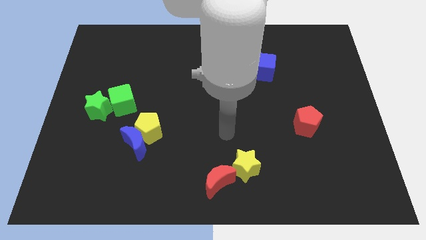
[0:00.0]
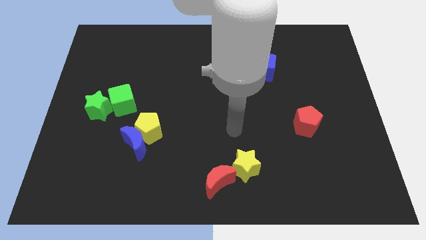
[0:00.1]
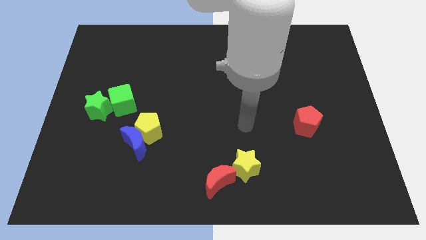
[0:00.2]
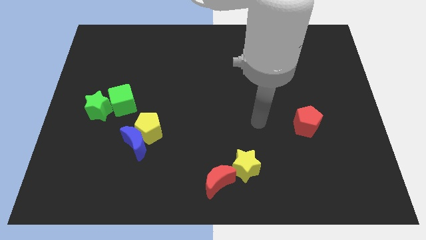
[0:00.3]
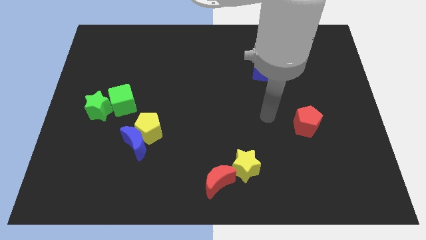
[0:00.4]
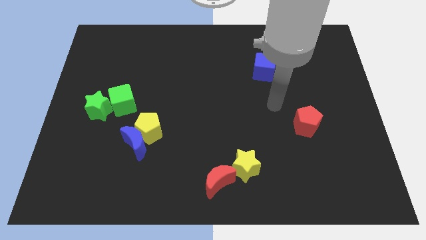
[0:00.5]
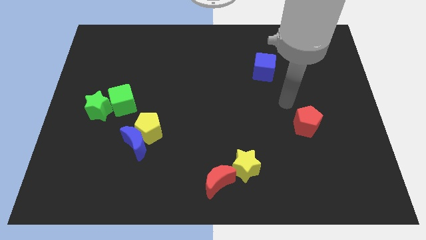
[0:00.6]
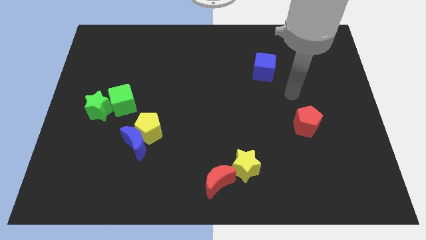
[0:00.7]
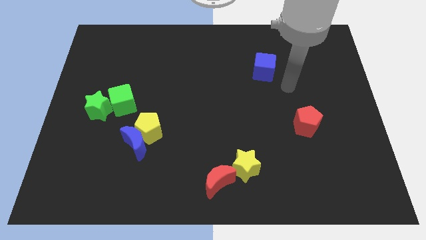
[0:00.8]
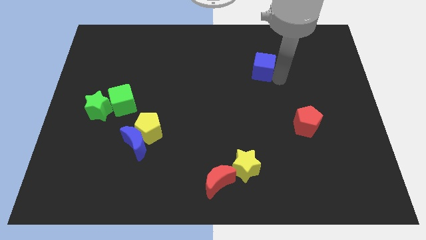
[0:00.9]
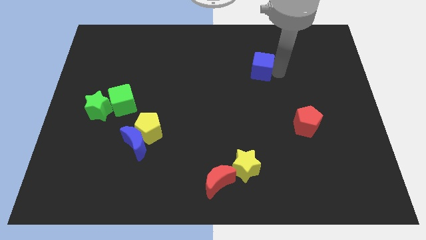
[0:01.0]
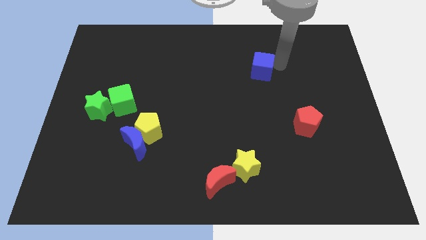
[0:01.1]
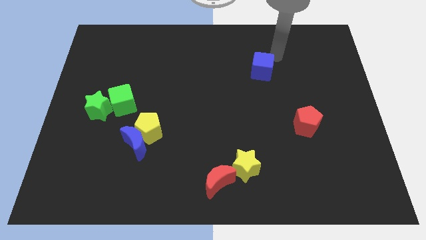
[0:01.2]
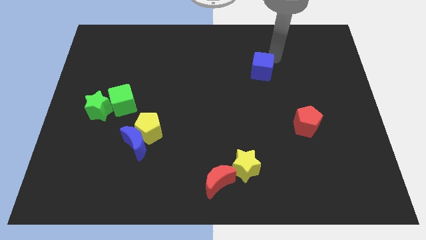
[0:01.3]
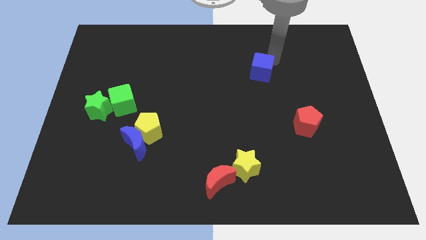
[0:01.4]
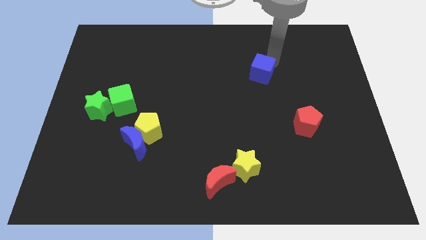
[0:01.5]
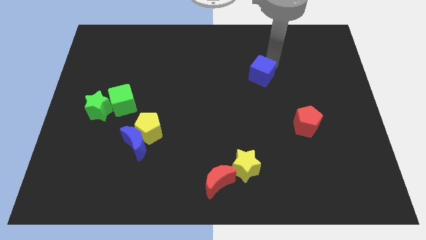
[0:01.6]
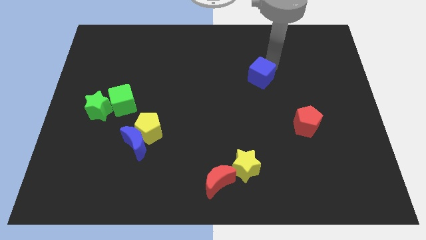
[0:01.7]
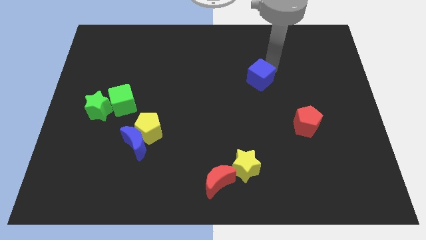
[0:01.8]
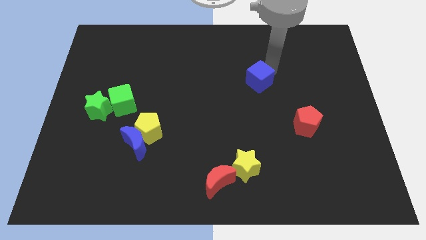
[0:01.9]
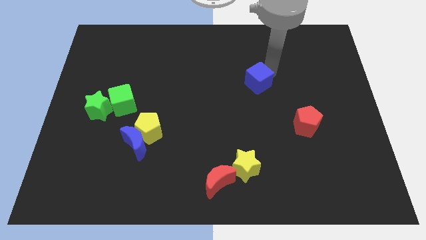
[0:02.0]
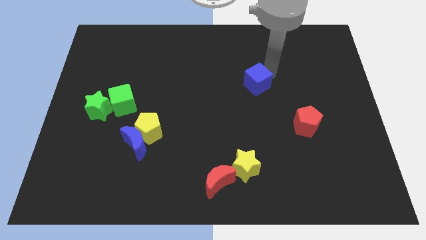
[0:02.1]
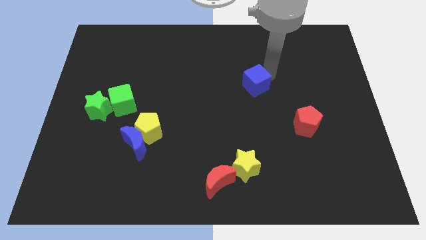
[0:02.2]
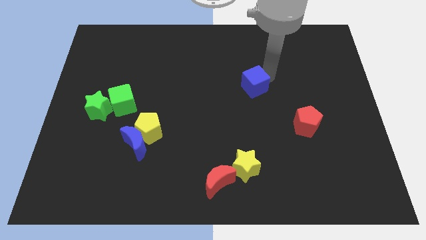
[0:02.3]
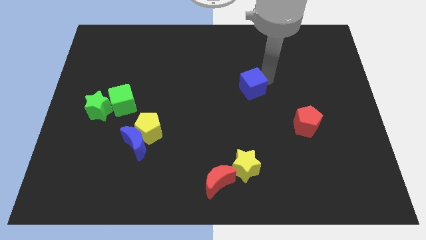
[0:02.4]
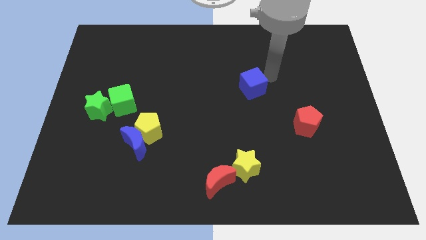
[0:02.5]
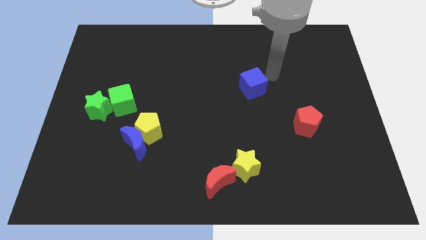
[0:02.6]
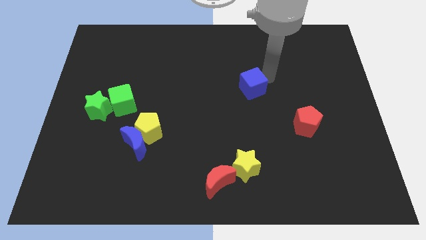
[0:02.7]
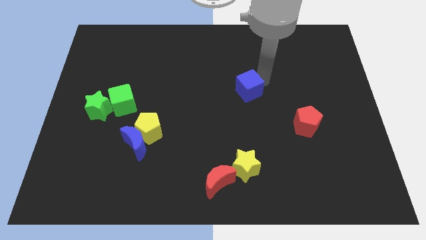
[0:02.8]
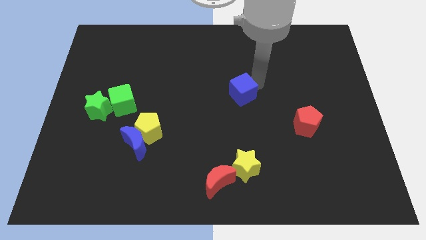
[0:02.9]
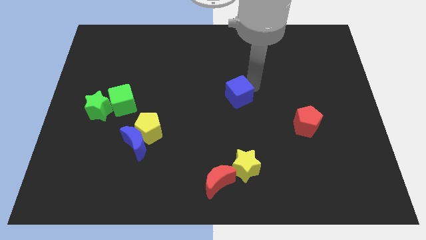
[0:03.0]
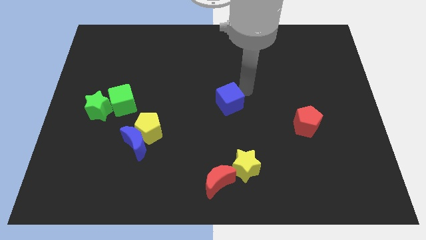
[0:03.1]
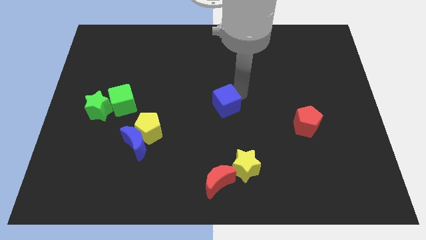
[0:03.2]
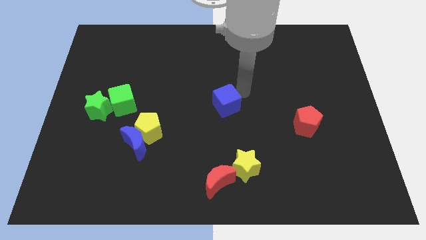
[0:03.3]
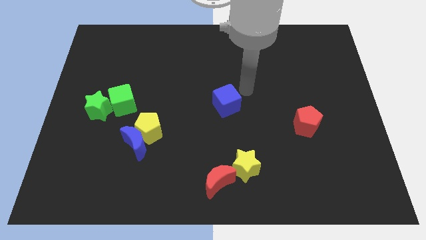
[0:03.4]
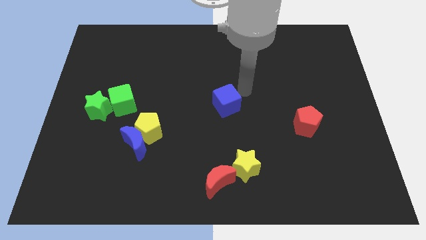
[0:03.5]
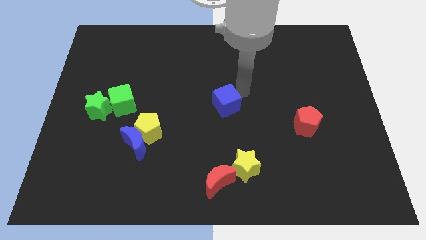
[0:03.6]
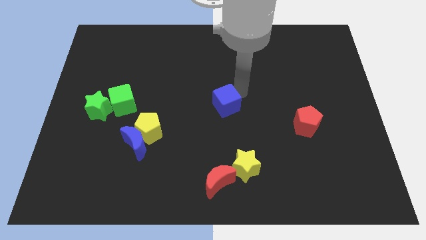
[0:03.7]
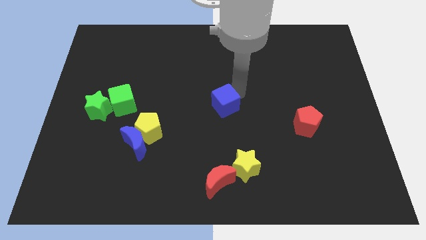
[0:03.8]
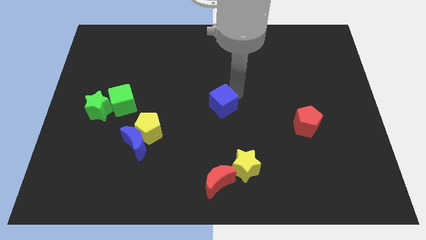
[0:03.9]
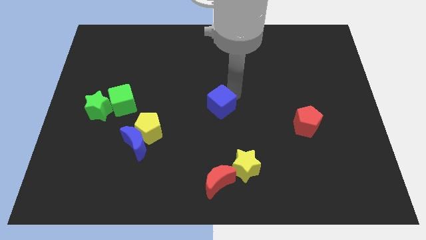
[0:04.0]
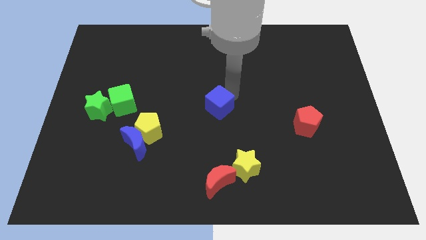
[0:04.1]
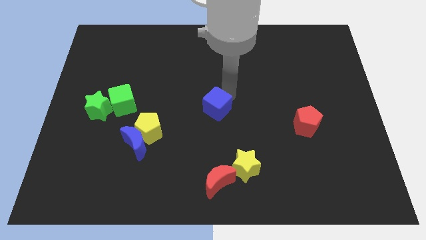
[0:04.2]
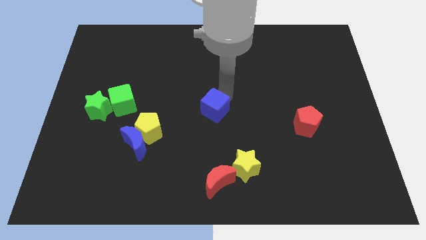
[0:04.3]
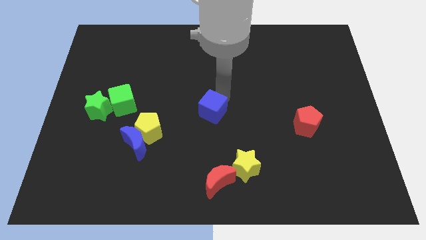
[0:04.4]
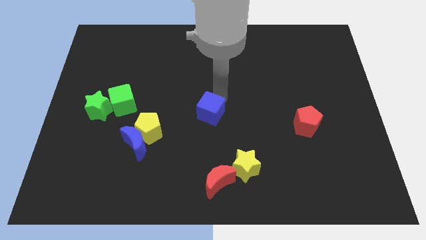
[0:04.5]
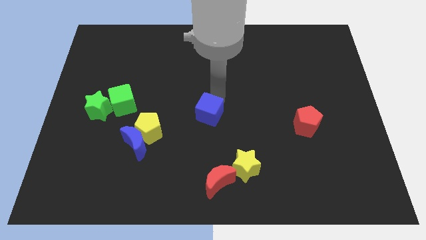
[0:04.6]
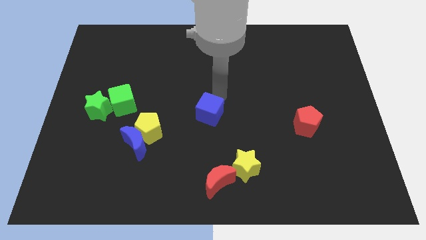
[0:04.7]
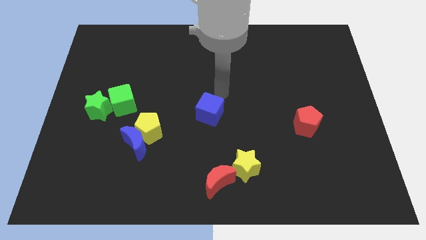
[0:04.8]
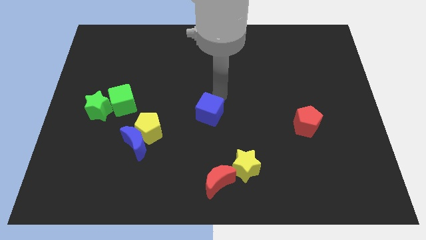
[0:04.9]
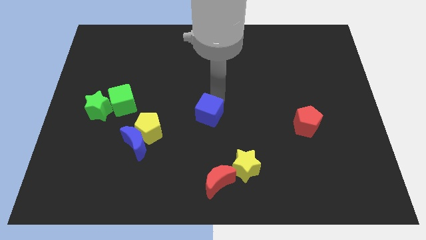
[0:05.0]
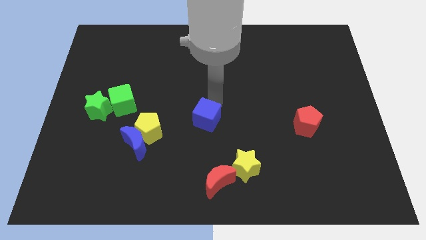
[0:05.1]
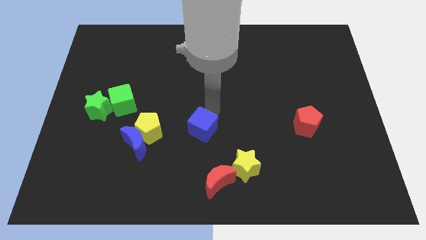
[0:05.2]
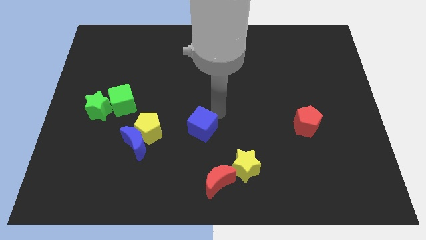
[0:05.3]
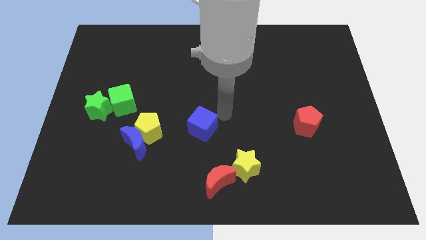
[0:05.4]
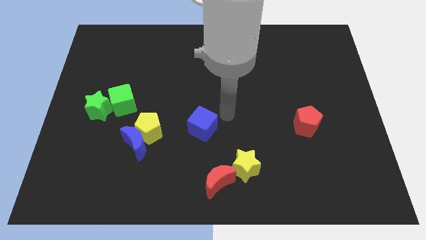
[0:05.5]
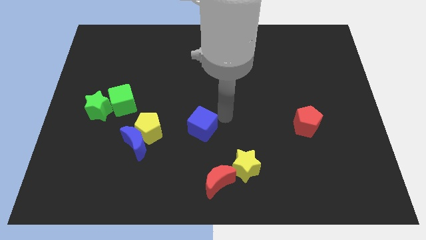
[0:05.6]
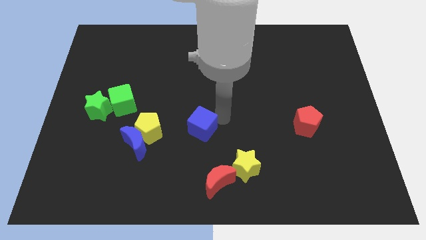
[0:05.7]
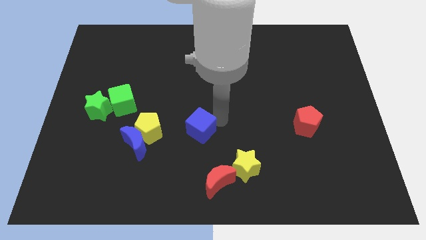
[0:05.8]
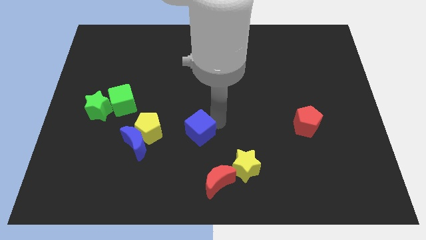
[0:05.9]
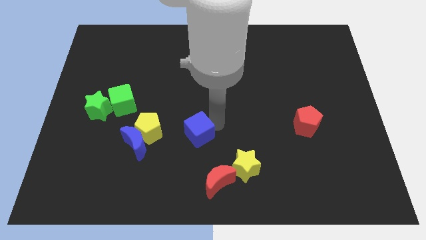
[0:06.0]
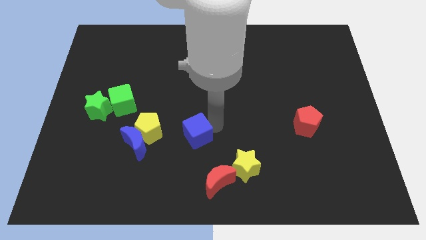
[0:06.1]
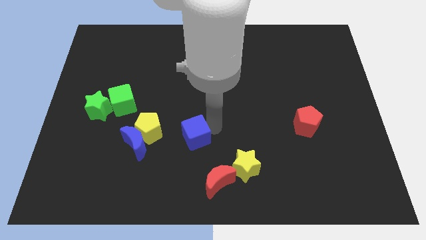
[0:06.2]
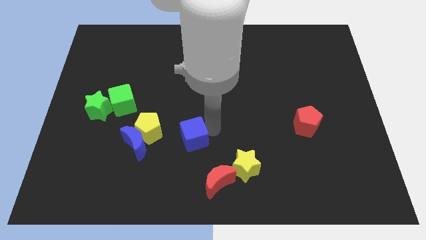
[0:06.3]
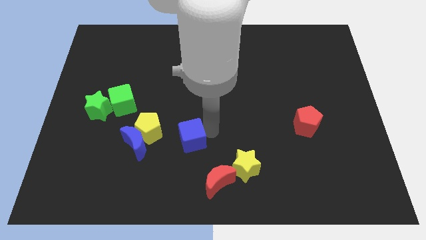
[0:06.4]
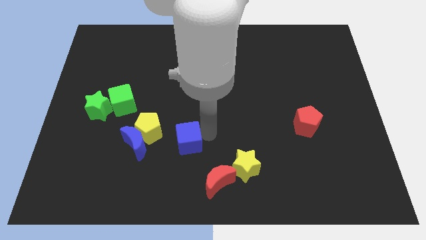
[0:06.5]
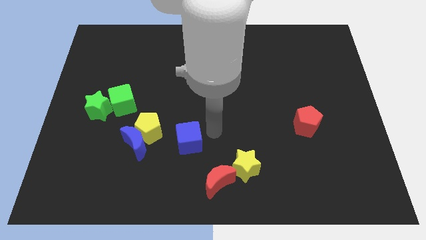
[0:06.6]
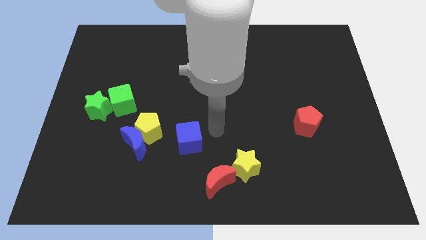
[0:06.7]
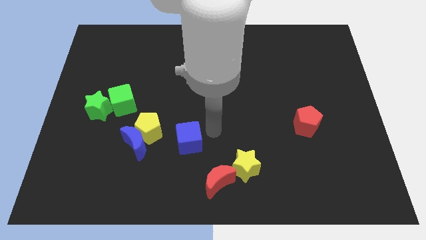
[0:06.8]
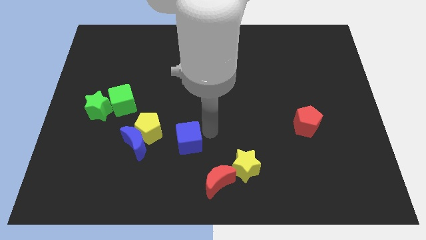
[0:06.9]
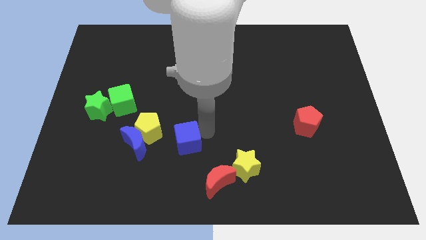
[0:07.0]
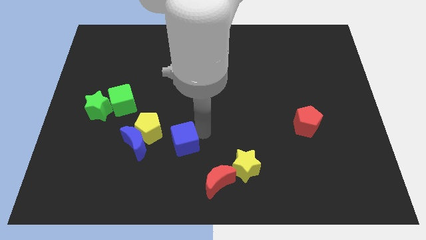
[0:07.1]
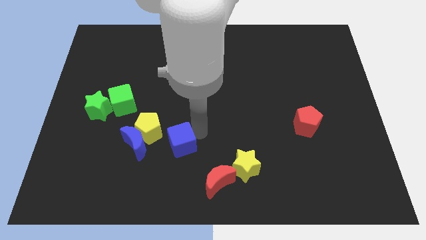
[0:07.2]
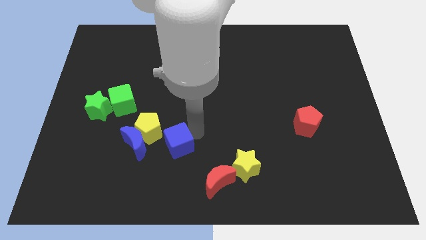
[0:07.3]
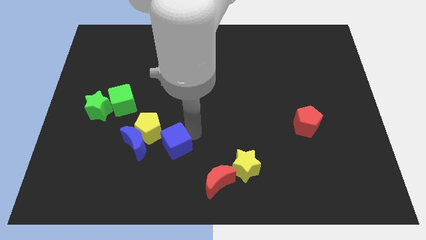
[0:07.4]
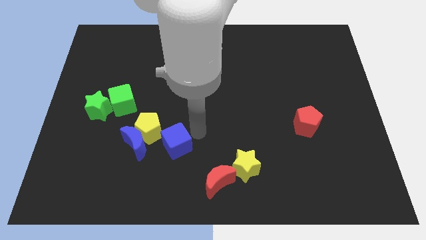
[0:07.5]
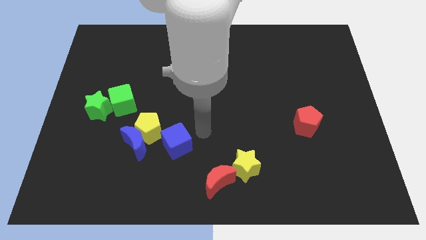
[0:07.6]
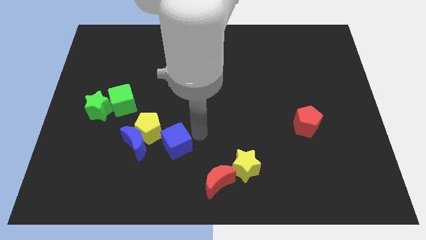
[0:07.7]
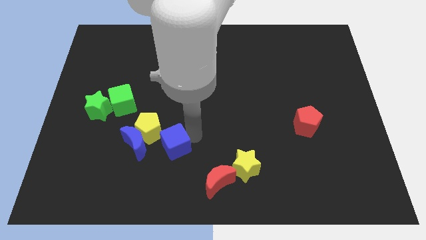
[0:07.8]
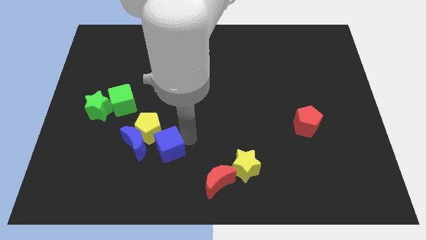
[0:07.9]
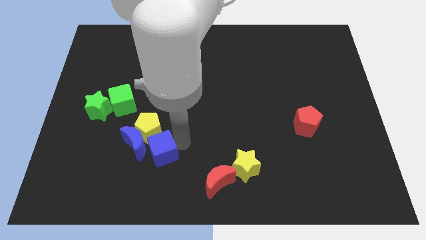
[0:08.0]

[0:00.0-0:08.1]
push the blue cube close to the blue moon

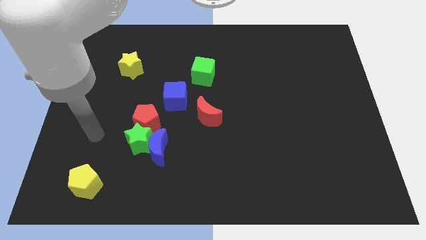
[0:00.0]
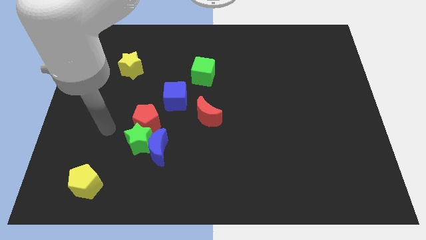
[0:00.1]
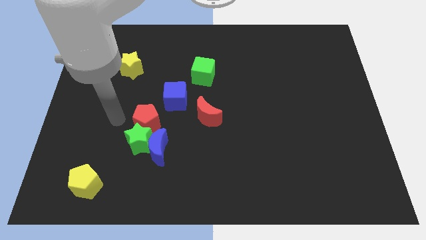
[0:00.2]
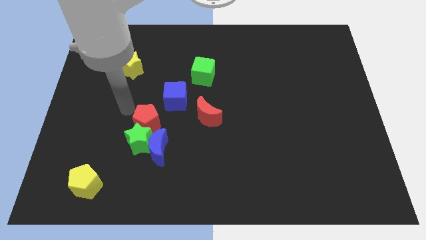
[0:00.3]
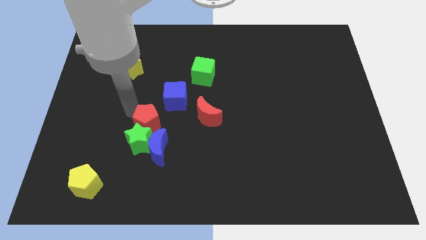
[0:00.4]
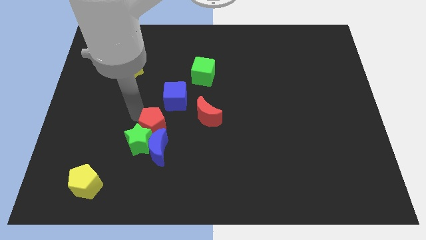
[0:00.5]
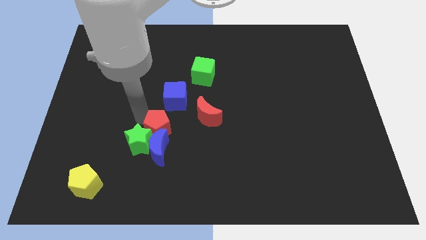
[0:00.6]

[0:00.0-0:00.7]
move the red pentagon close to the blue moon
